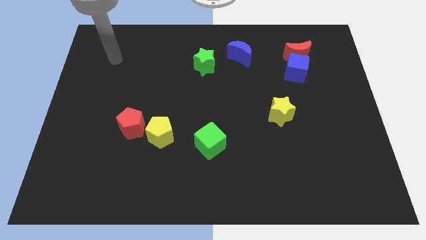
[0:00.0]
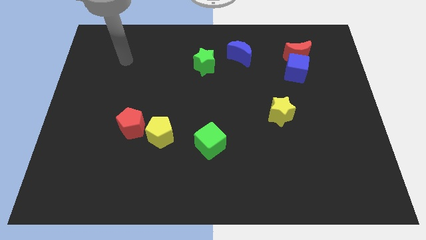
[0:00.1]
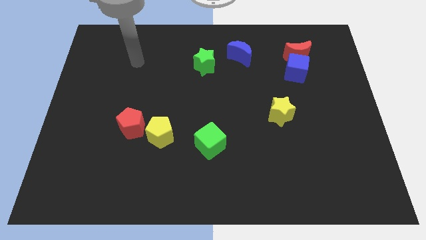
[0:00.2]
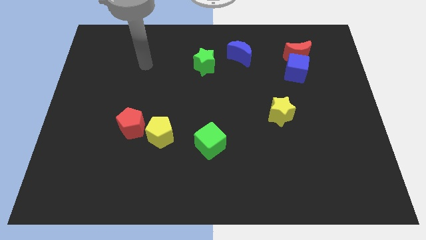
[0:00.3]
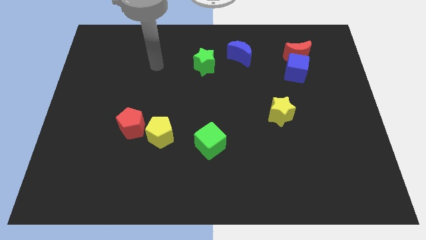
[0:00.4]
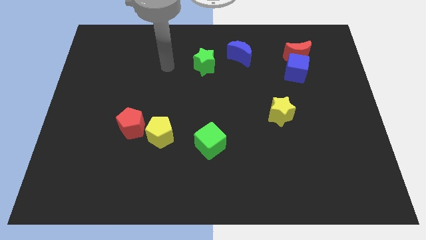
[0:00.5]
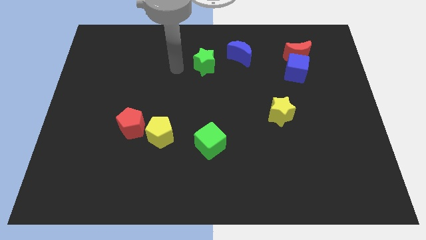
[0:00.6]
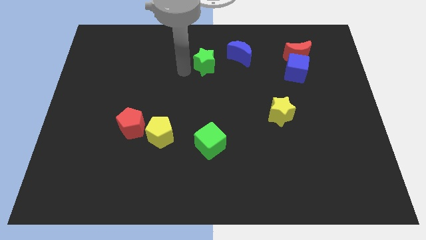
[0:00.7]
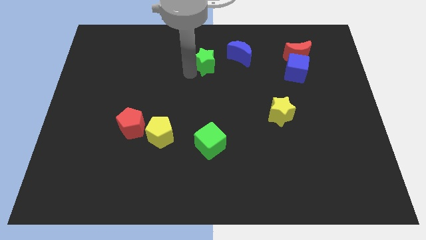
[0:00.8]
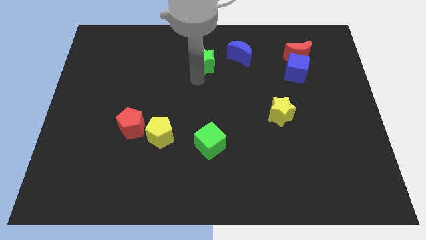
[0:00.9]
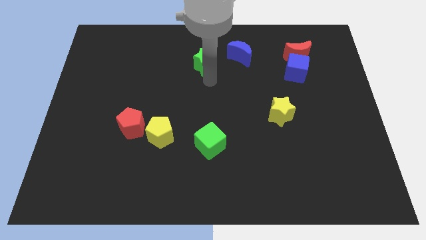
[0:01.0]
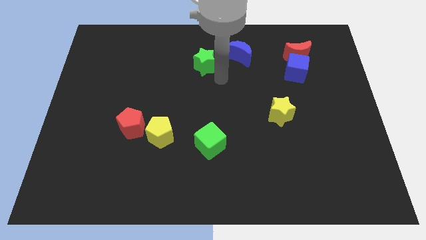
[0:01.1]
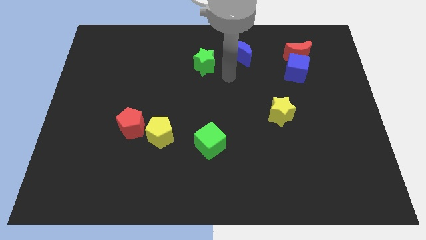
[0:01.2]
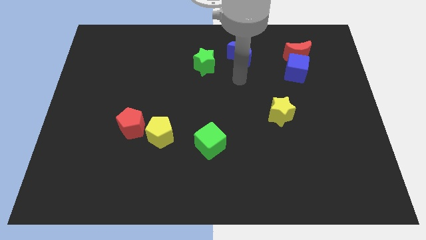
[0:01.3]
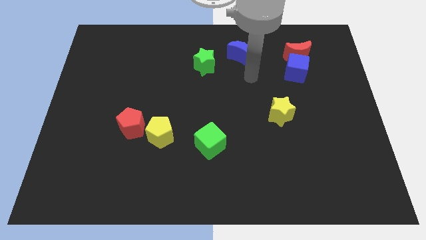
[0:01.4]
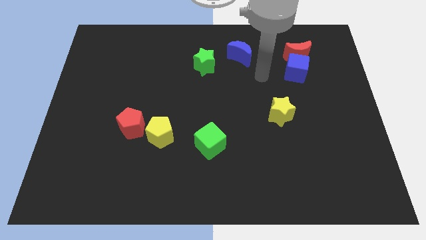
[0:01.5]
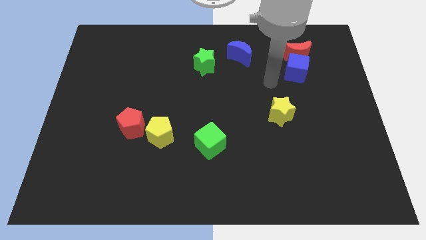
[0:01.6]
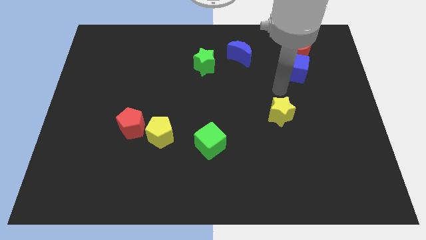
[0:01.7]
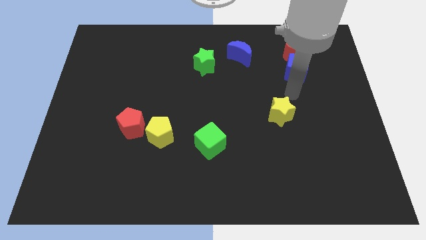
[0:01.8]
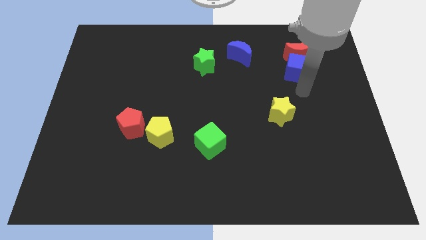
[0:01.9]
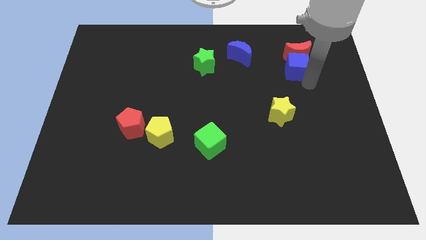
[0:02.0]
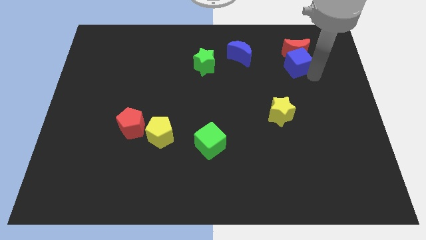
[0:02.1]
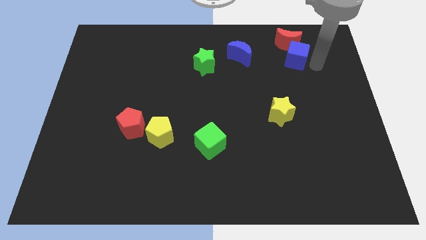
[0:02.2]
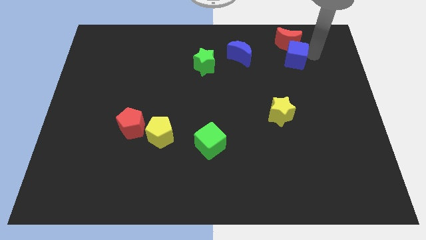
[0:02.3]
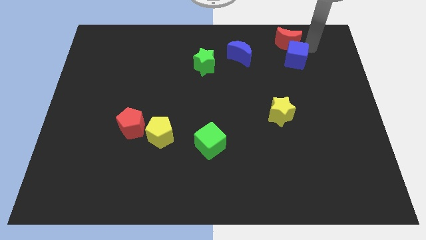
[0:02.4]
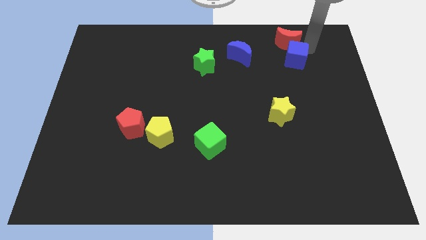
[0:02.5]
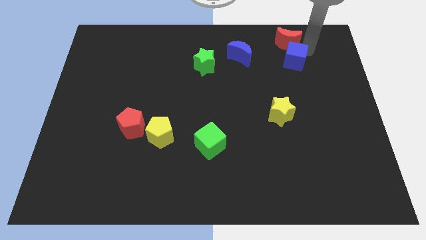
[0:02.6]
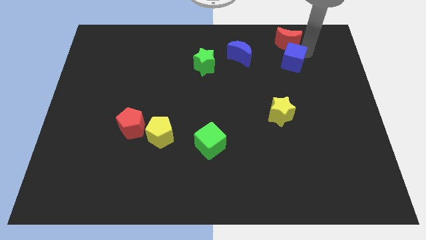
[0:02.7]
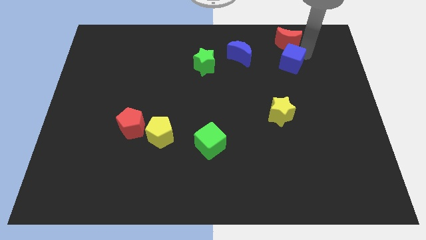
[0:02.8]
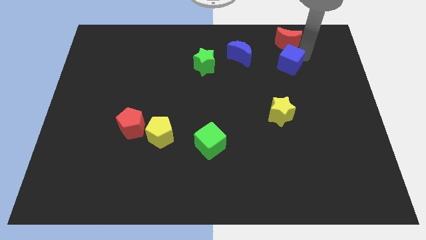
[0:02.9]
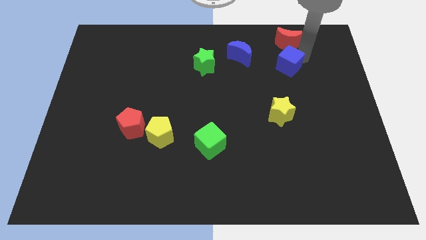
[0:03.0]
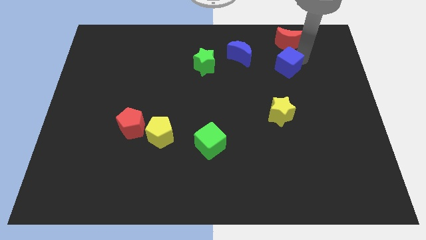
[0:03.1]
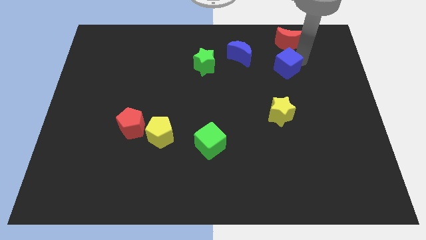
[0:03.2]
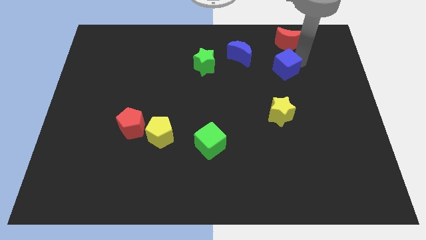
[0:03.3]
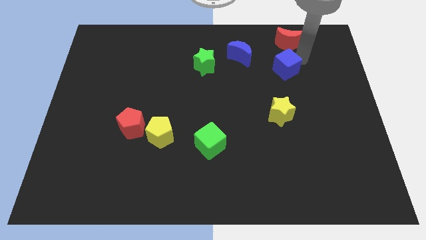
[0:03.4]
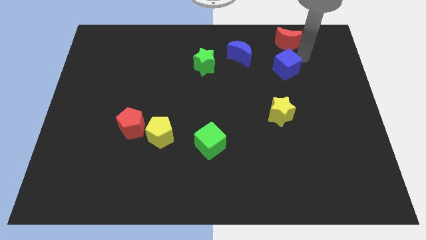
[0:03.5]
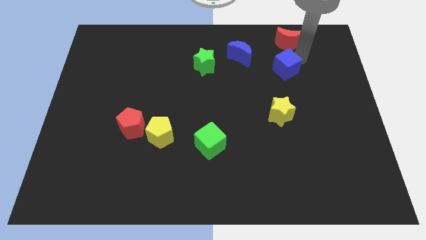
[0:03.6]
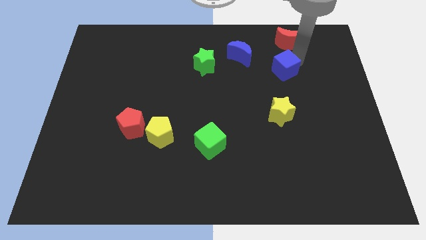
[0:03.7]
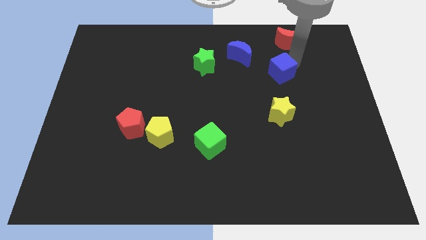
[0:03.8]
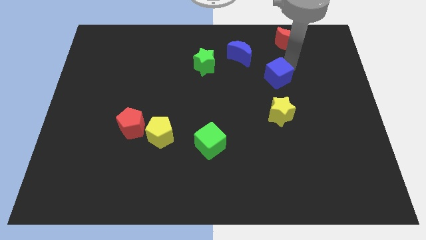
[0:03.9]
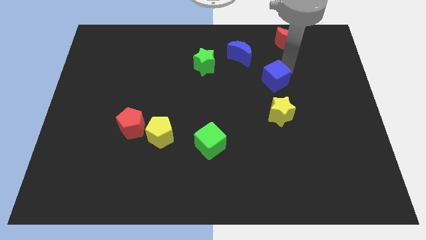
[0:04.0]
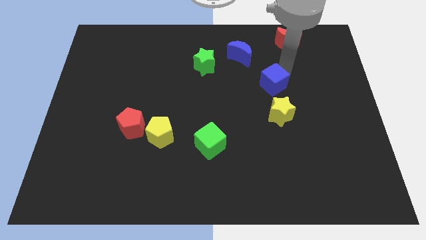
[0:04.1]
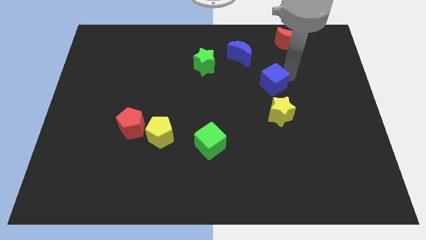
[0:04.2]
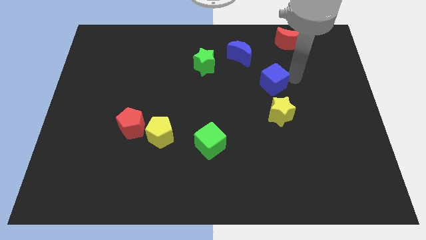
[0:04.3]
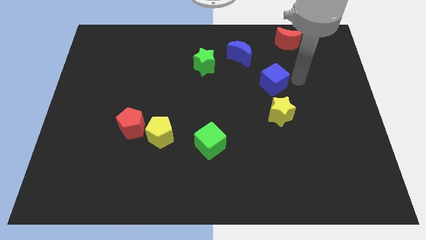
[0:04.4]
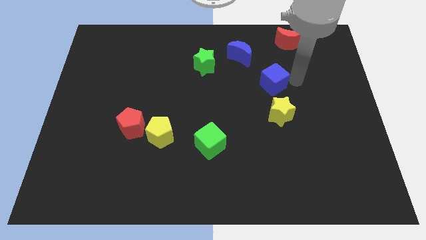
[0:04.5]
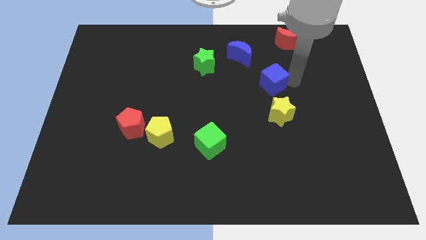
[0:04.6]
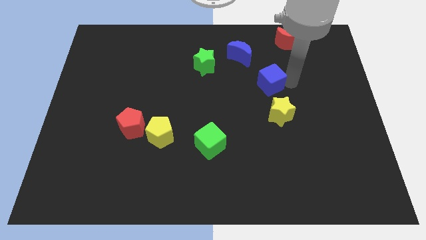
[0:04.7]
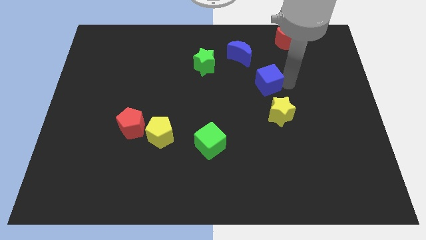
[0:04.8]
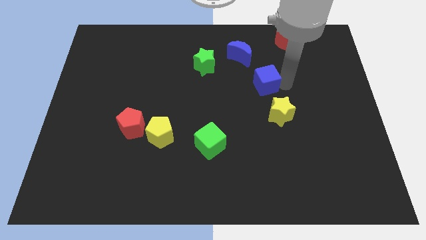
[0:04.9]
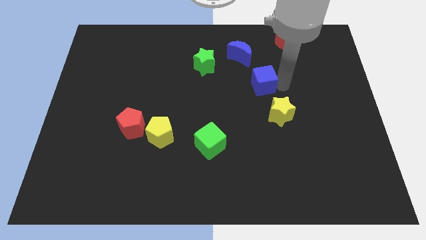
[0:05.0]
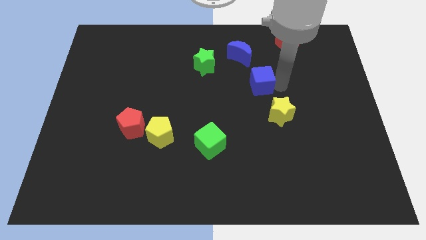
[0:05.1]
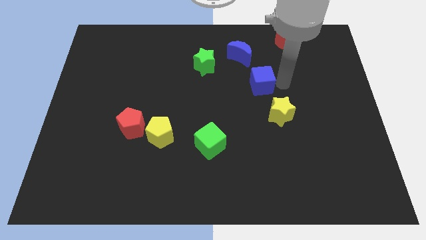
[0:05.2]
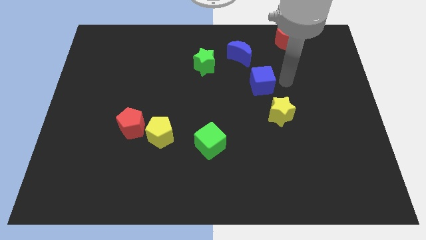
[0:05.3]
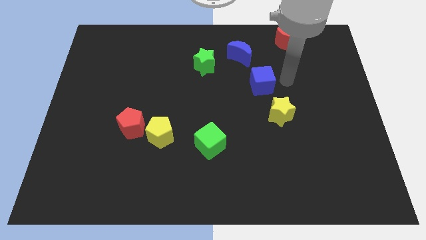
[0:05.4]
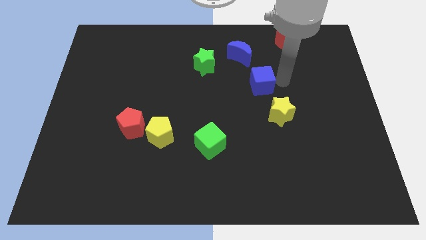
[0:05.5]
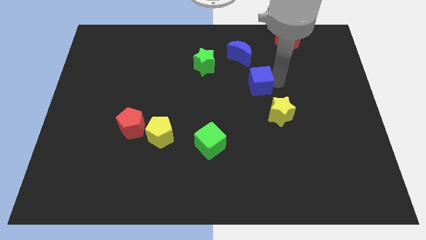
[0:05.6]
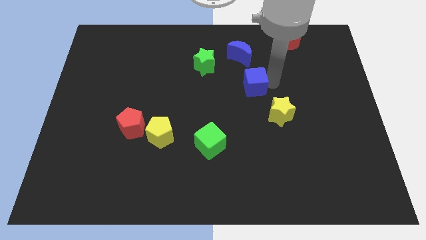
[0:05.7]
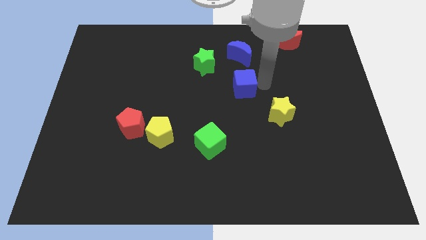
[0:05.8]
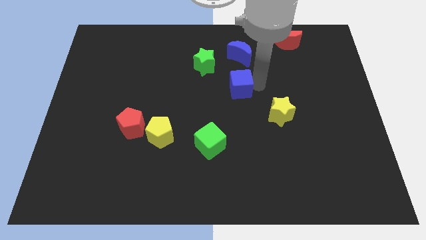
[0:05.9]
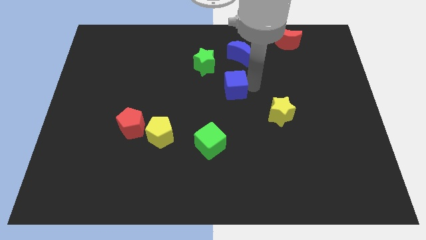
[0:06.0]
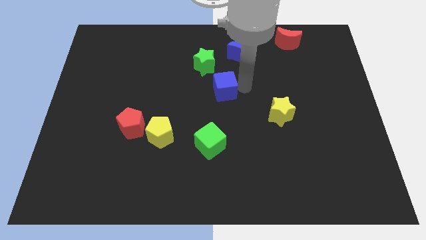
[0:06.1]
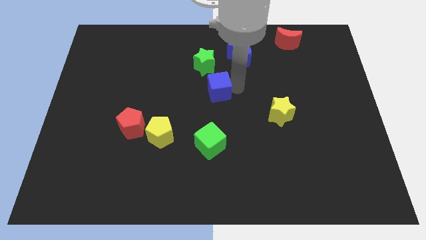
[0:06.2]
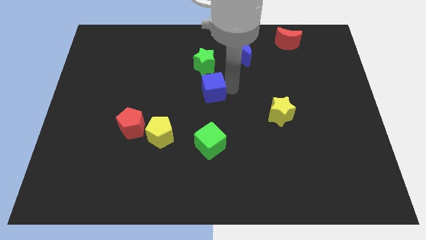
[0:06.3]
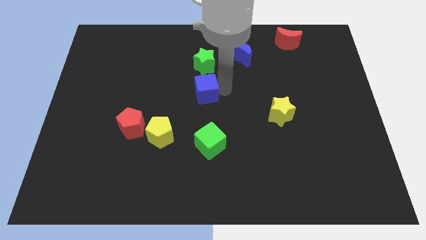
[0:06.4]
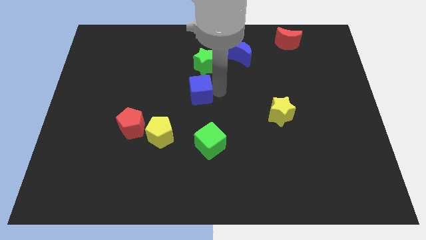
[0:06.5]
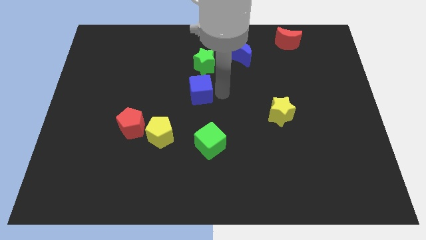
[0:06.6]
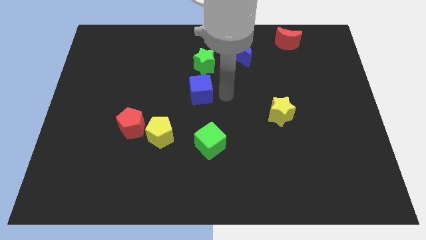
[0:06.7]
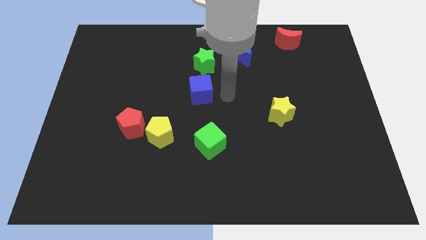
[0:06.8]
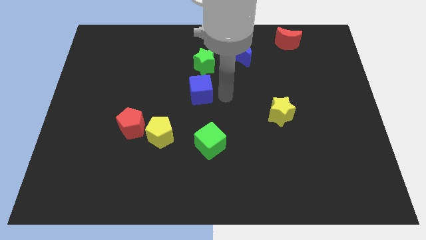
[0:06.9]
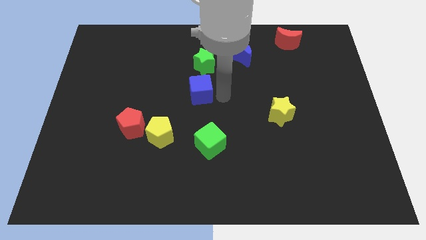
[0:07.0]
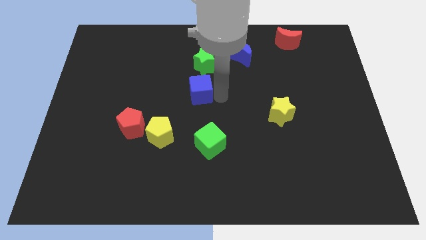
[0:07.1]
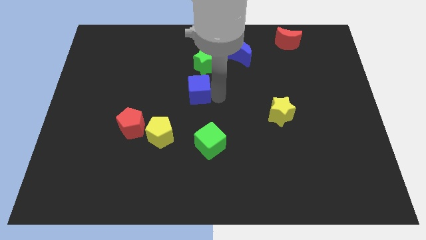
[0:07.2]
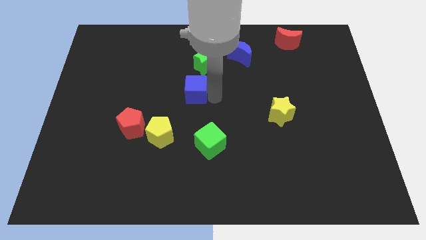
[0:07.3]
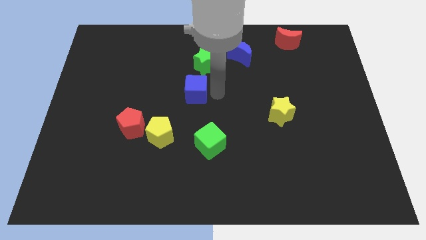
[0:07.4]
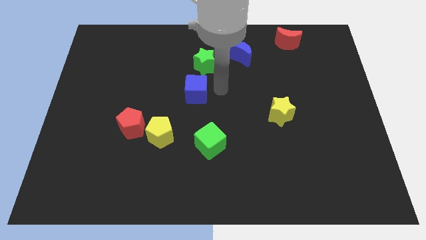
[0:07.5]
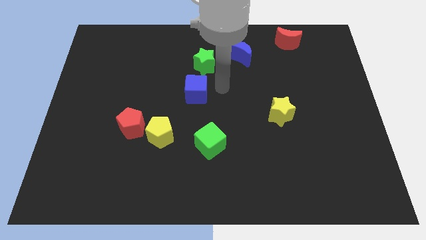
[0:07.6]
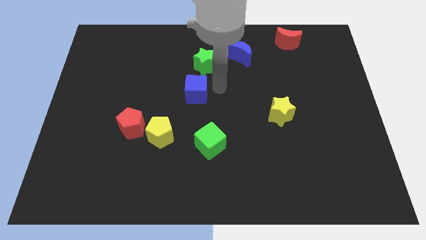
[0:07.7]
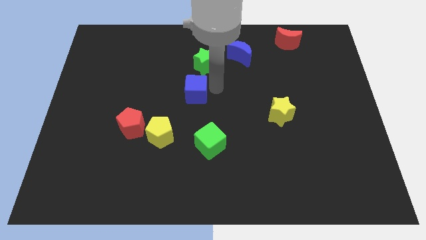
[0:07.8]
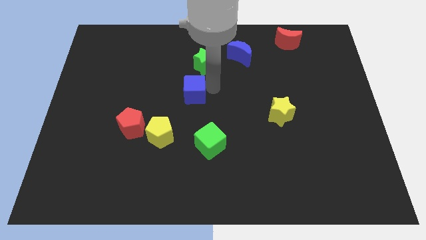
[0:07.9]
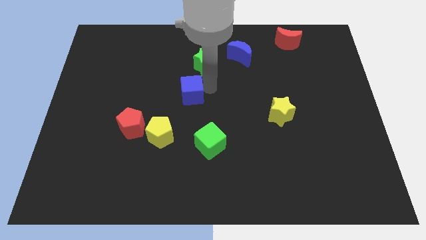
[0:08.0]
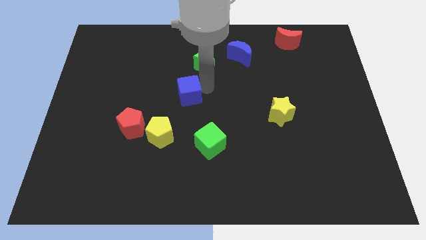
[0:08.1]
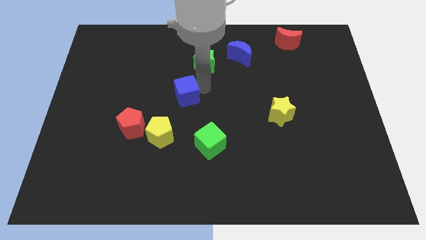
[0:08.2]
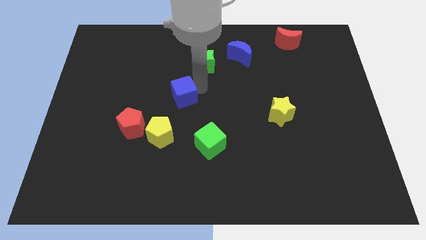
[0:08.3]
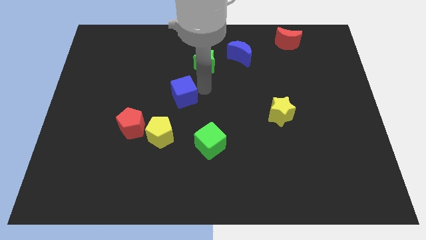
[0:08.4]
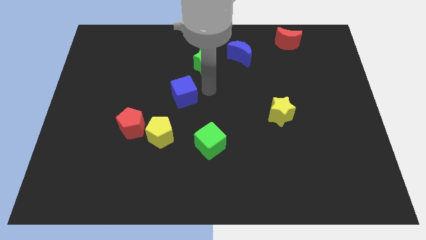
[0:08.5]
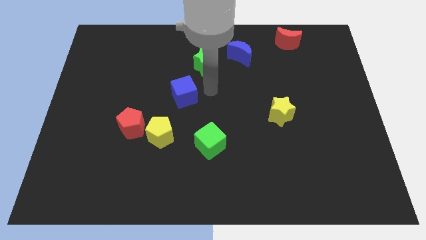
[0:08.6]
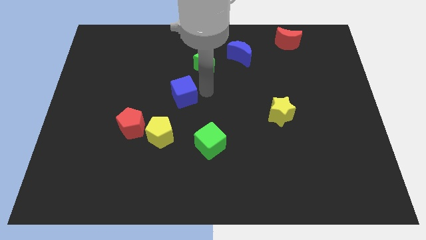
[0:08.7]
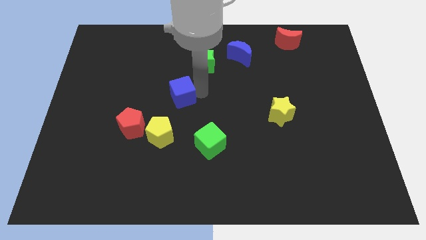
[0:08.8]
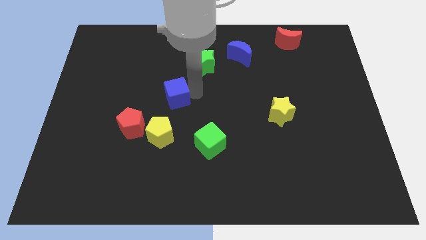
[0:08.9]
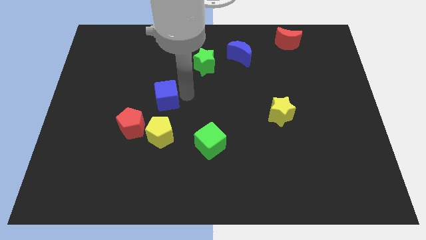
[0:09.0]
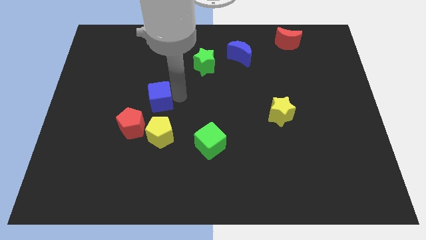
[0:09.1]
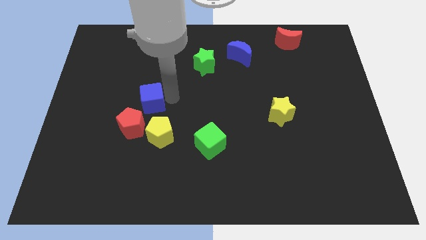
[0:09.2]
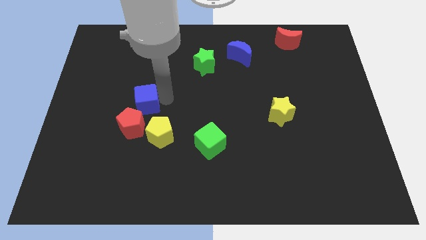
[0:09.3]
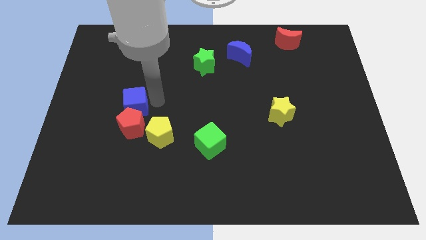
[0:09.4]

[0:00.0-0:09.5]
slide the blue cube diagonally up and to the left of the red pentagon
